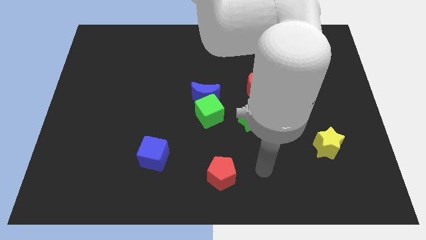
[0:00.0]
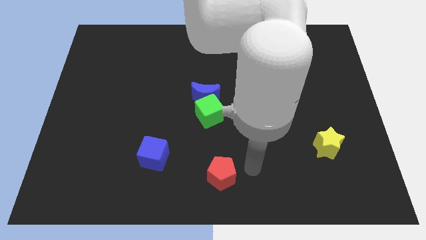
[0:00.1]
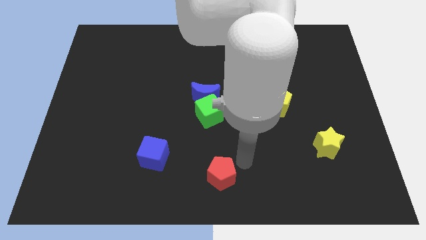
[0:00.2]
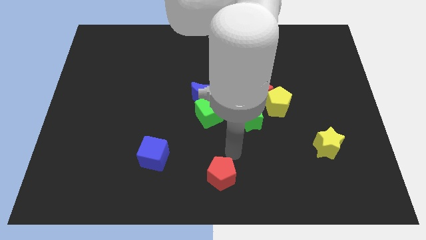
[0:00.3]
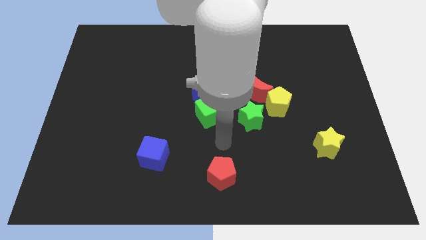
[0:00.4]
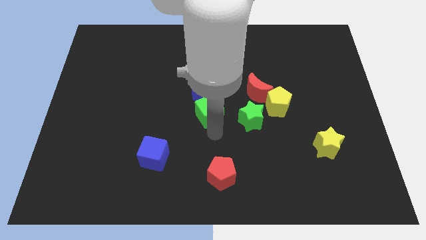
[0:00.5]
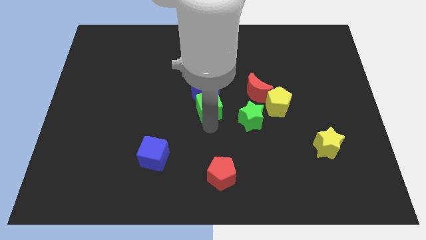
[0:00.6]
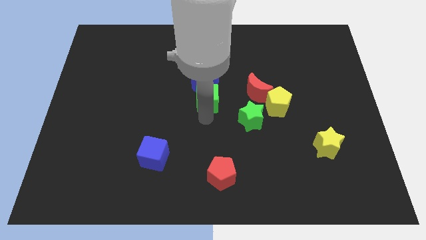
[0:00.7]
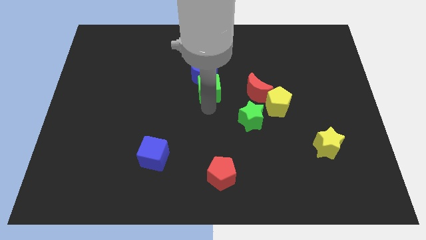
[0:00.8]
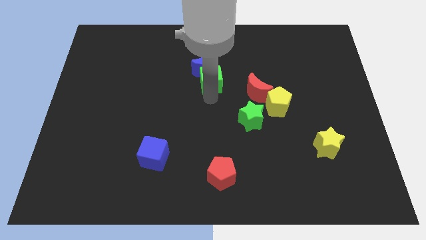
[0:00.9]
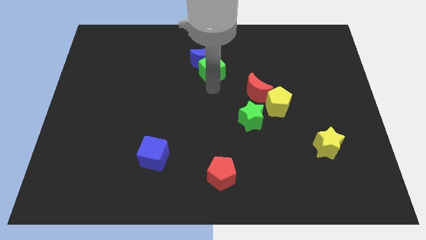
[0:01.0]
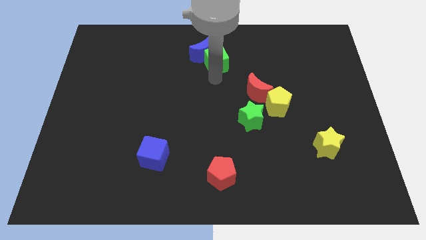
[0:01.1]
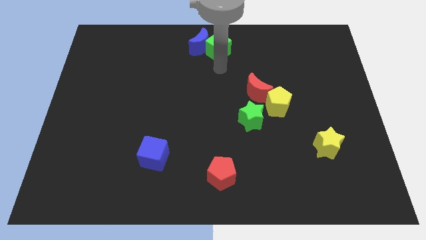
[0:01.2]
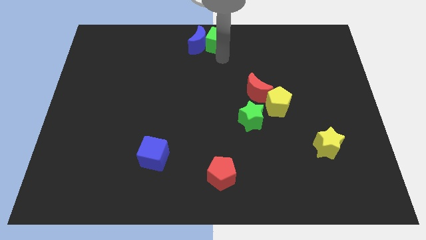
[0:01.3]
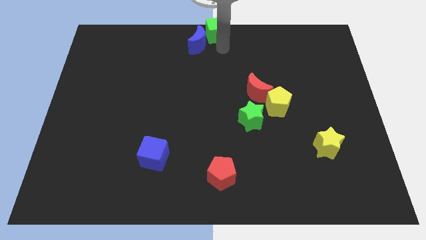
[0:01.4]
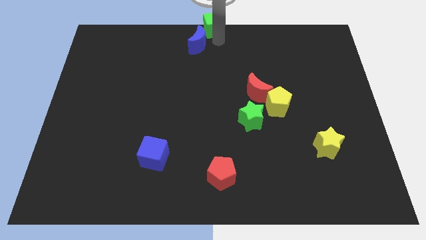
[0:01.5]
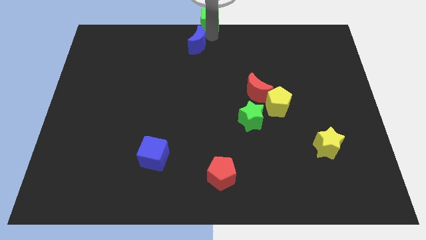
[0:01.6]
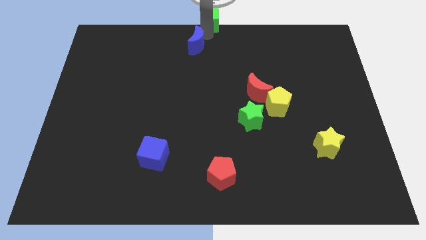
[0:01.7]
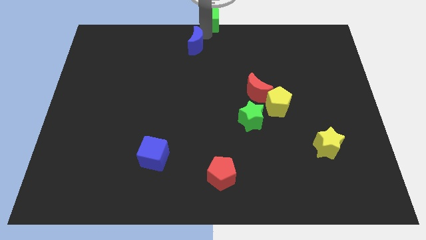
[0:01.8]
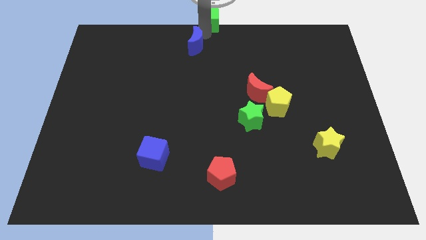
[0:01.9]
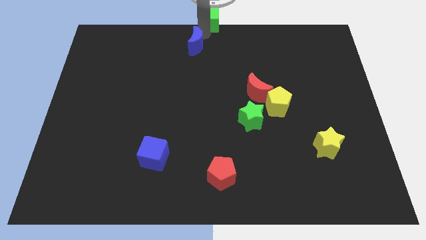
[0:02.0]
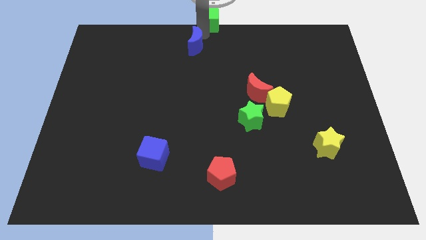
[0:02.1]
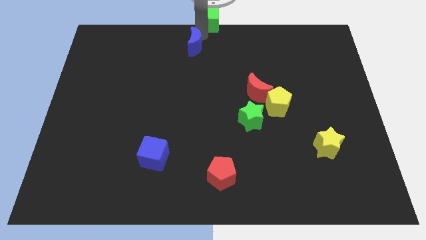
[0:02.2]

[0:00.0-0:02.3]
separate the blue moon from the green cube

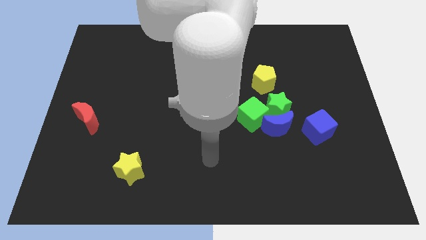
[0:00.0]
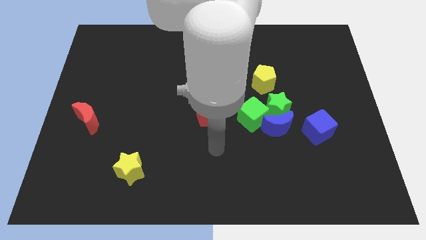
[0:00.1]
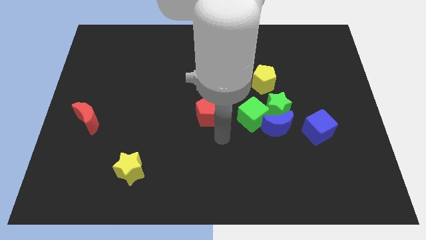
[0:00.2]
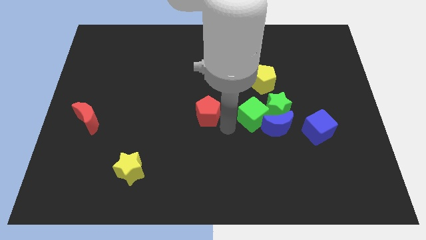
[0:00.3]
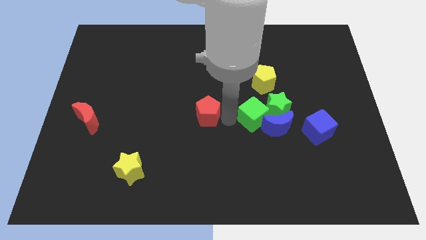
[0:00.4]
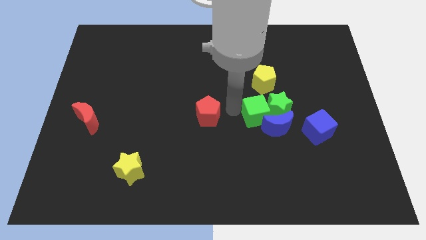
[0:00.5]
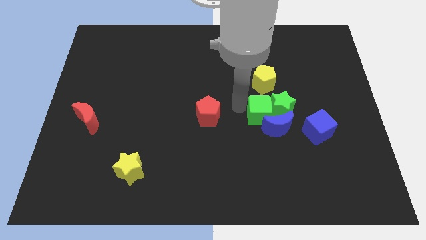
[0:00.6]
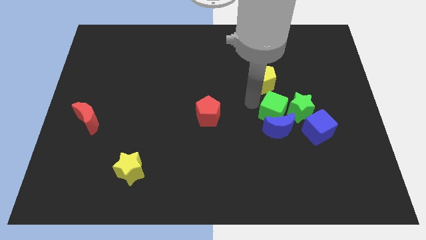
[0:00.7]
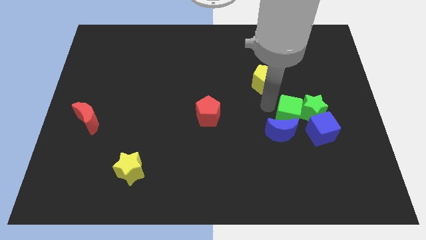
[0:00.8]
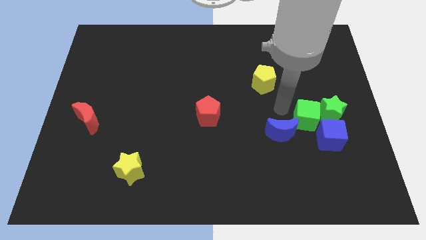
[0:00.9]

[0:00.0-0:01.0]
pull the green star apart from the clump

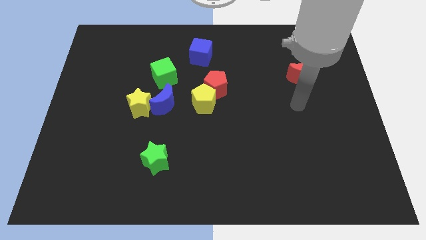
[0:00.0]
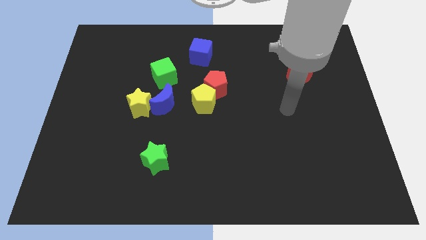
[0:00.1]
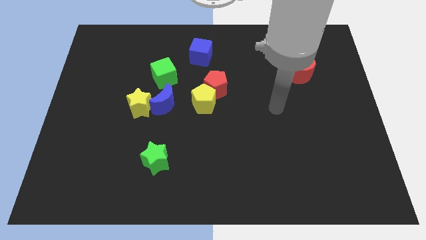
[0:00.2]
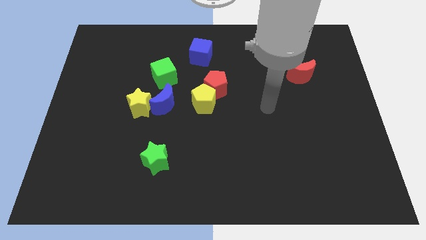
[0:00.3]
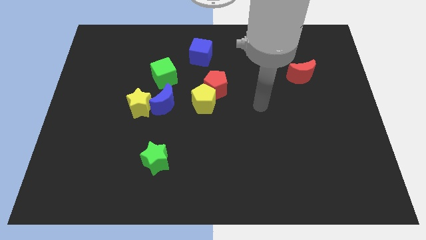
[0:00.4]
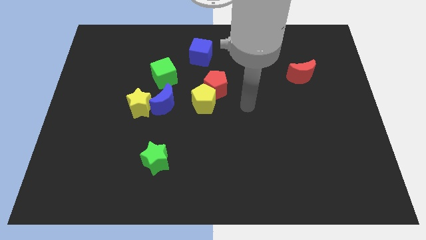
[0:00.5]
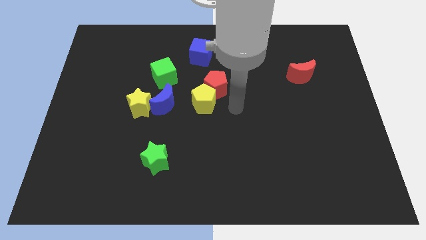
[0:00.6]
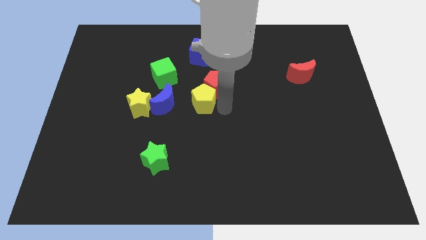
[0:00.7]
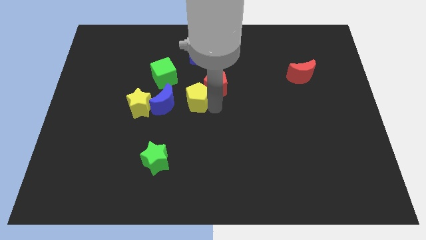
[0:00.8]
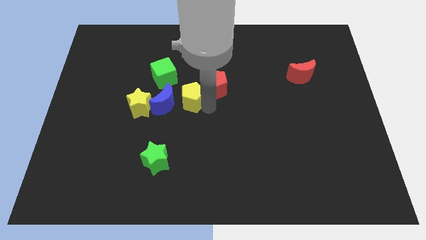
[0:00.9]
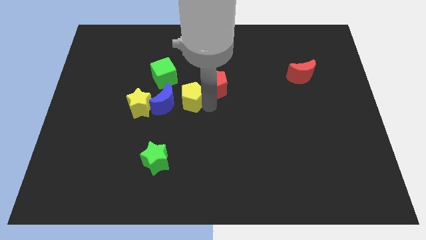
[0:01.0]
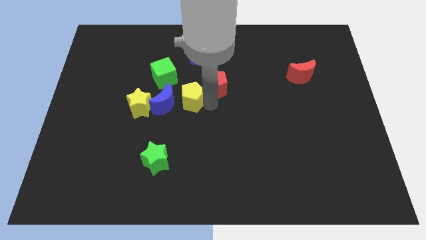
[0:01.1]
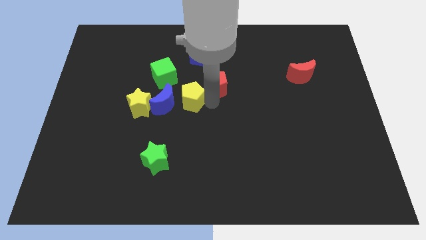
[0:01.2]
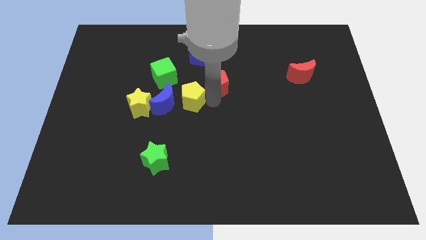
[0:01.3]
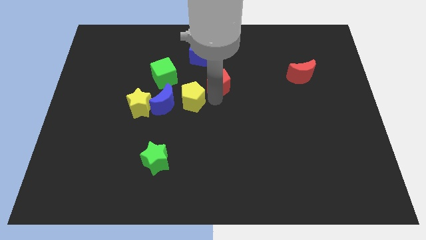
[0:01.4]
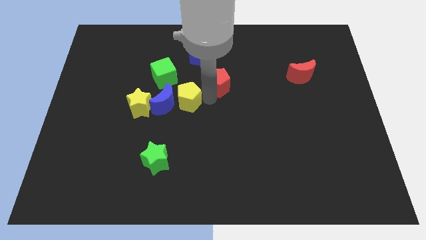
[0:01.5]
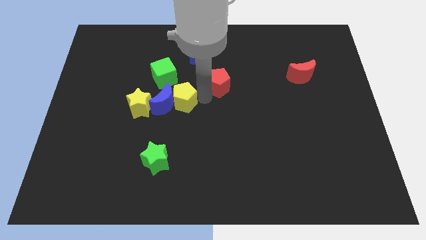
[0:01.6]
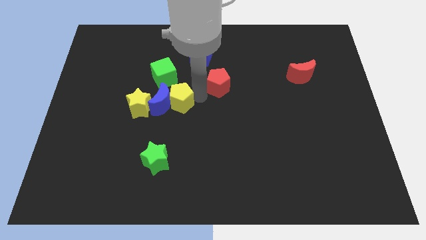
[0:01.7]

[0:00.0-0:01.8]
move the red pentagon away from the yellow pentagon

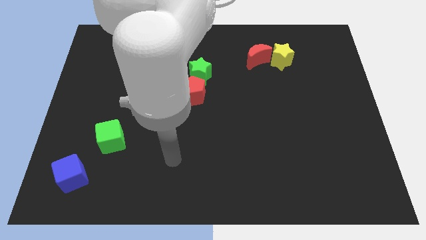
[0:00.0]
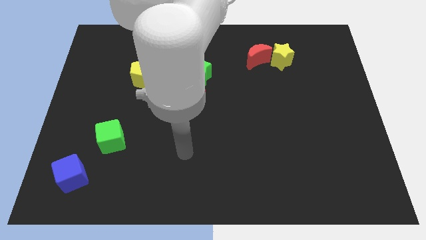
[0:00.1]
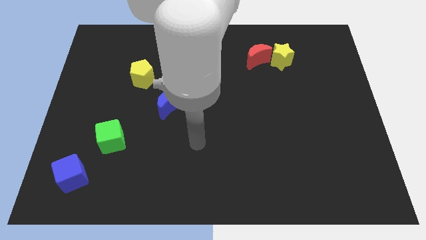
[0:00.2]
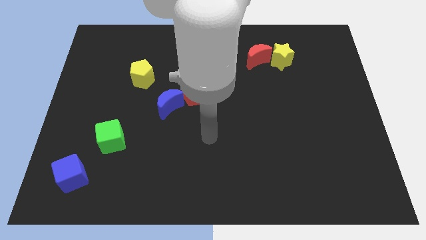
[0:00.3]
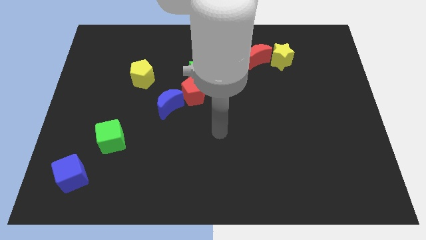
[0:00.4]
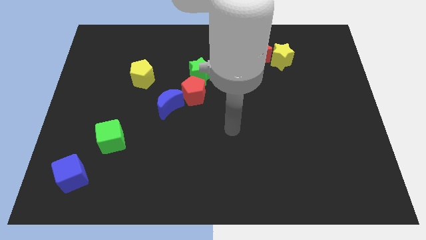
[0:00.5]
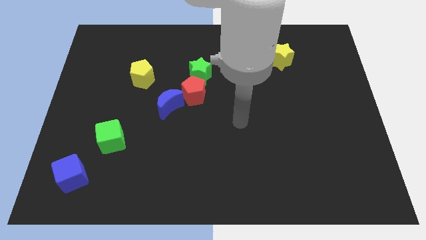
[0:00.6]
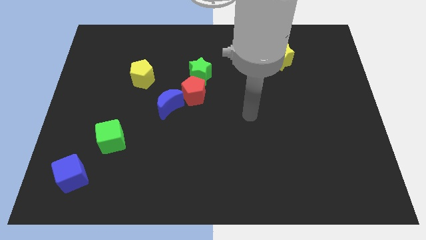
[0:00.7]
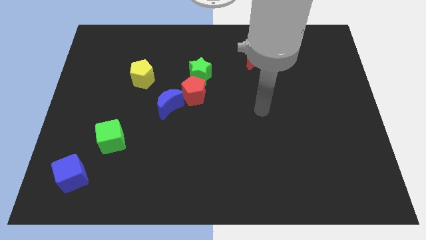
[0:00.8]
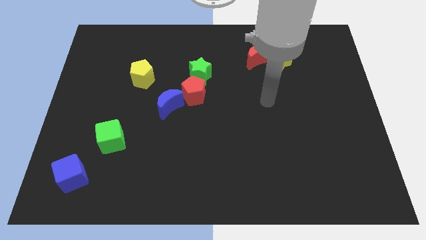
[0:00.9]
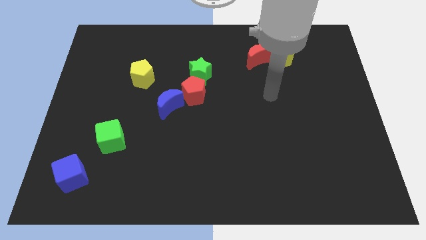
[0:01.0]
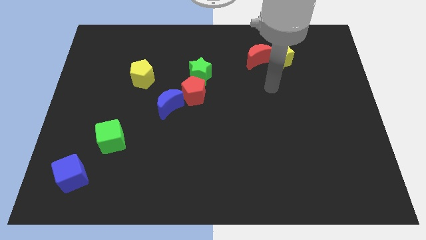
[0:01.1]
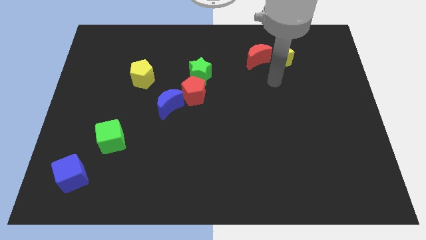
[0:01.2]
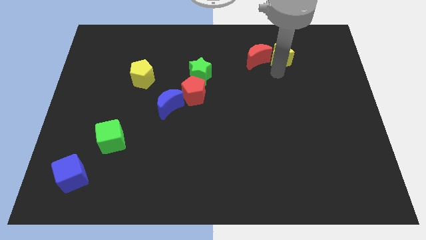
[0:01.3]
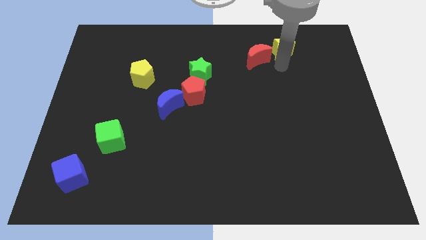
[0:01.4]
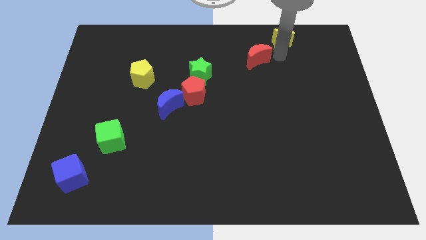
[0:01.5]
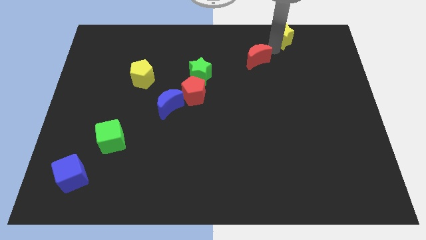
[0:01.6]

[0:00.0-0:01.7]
move the red moon away from the yellow star

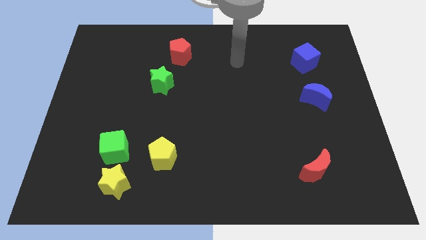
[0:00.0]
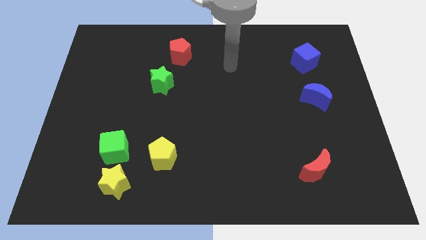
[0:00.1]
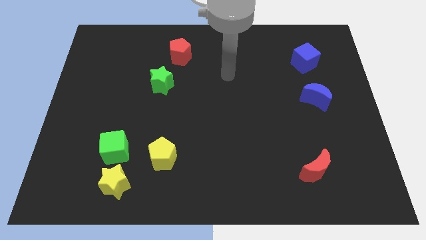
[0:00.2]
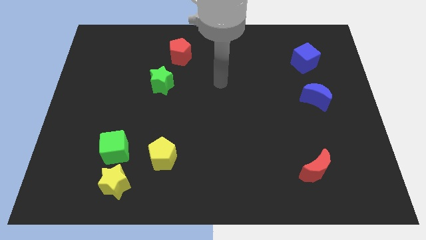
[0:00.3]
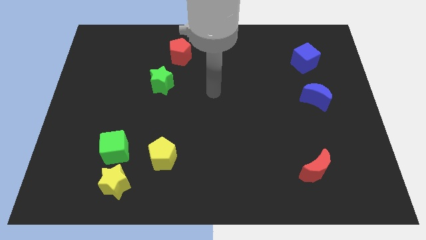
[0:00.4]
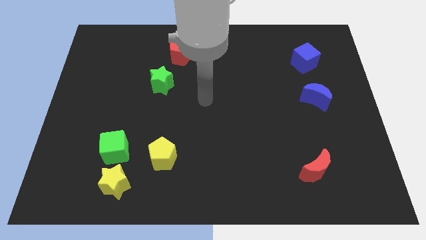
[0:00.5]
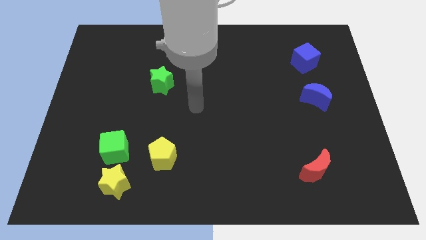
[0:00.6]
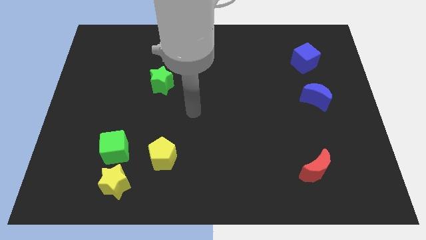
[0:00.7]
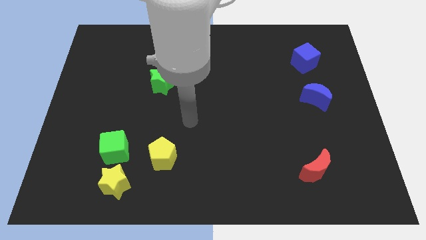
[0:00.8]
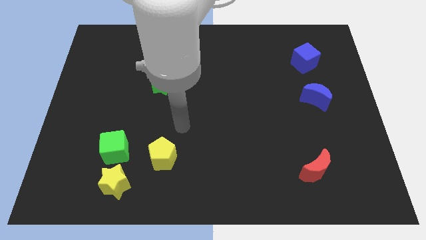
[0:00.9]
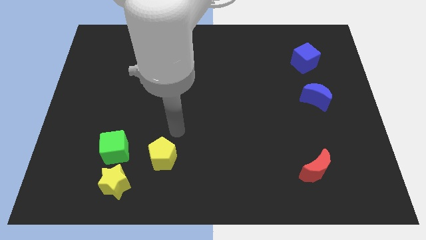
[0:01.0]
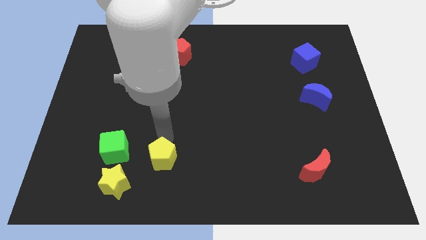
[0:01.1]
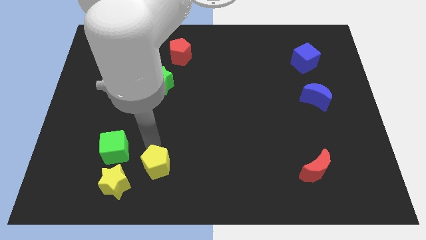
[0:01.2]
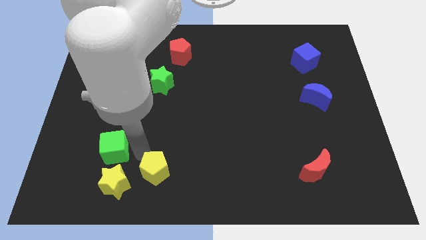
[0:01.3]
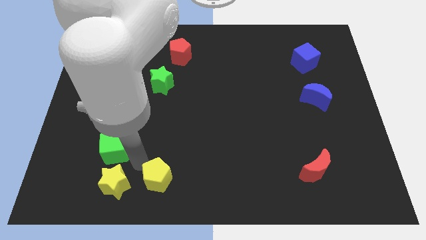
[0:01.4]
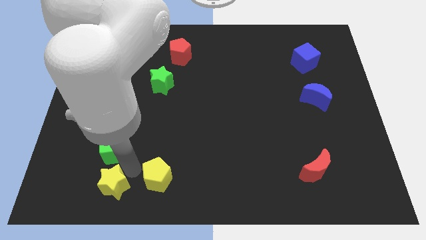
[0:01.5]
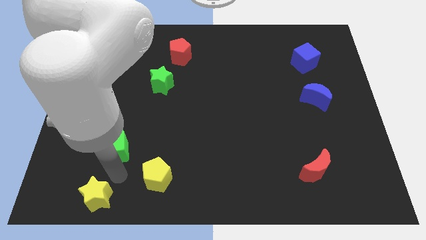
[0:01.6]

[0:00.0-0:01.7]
pull the green cube apart from the yellow star

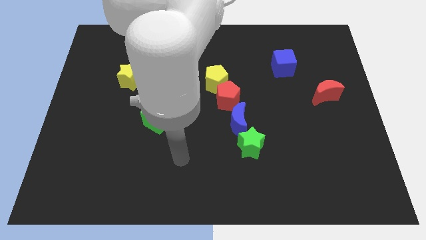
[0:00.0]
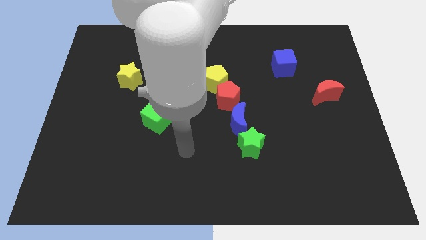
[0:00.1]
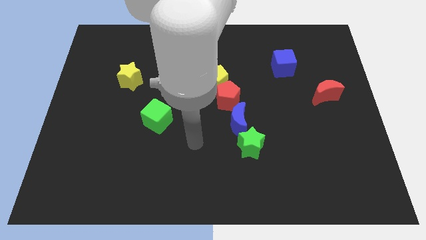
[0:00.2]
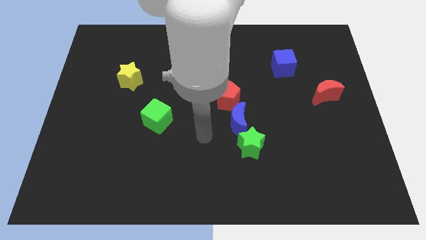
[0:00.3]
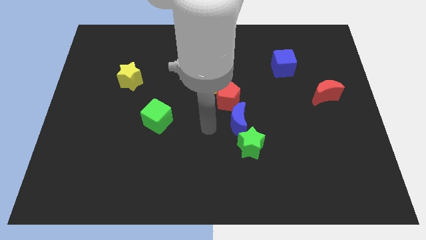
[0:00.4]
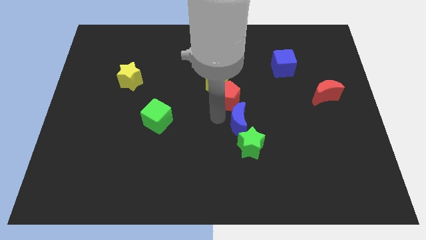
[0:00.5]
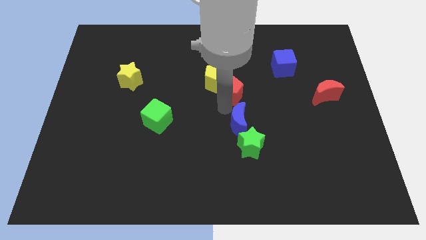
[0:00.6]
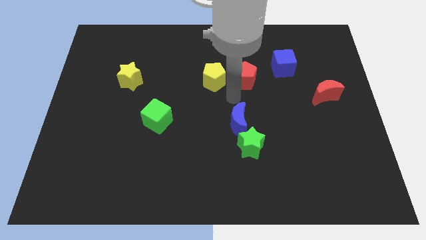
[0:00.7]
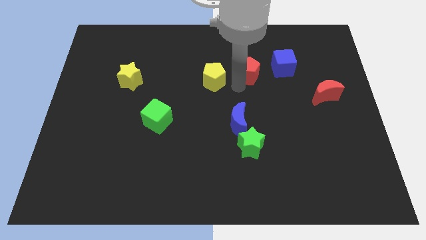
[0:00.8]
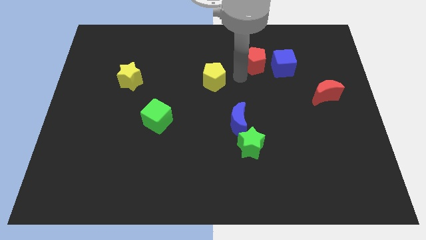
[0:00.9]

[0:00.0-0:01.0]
move the yellow pentagon away from the red pentagon
